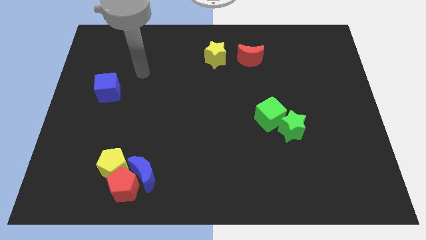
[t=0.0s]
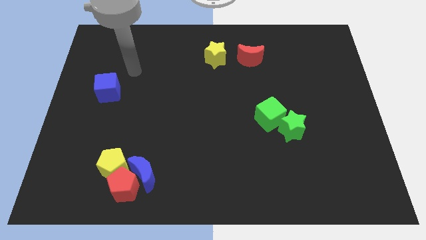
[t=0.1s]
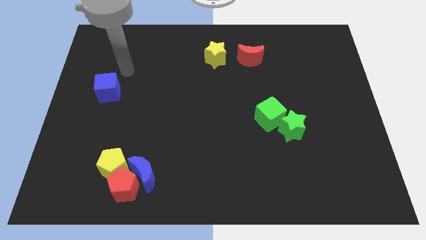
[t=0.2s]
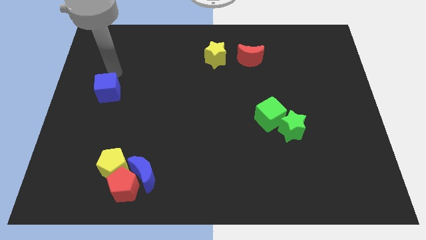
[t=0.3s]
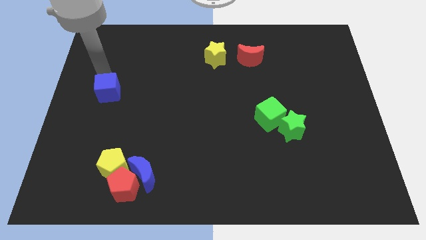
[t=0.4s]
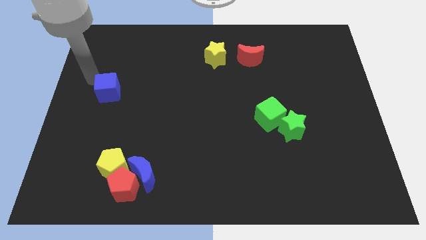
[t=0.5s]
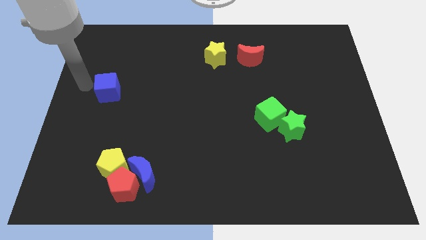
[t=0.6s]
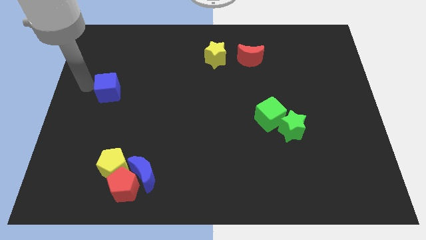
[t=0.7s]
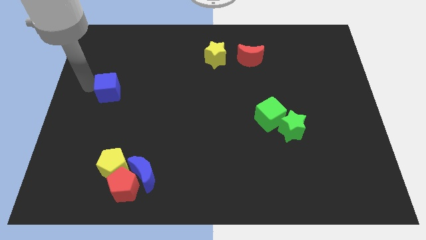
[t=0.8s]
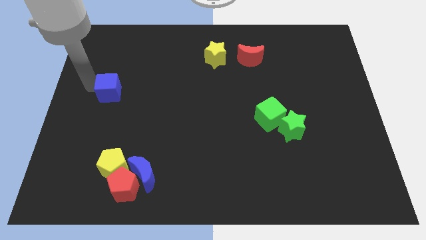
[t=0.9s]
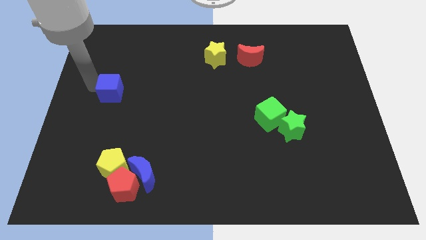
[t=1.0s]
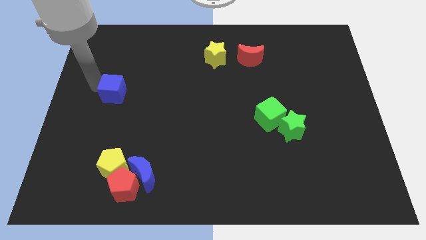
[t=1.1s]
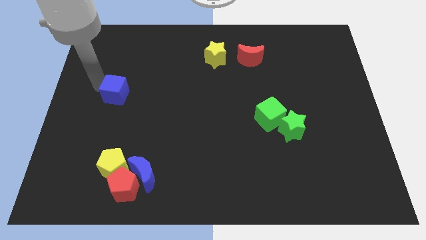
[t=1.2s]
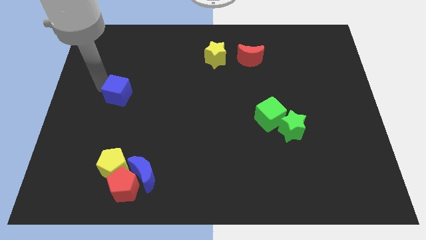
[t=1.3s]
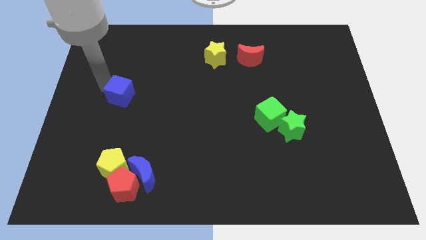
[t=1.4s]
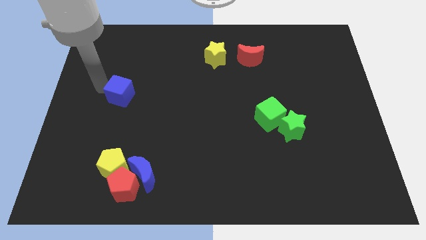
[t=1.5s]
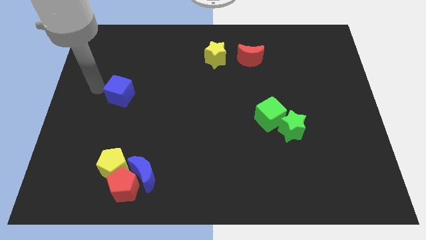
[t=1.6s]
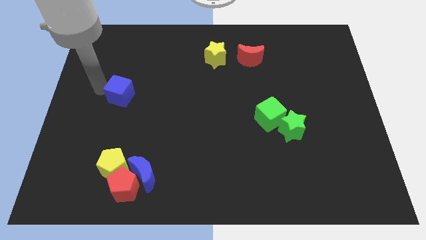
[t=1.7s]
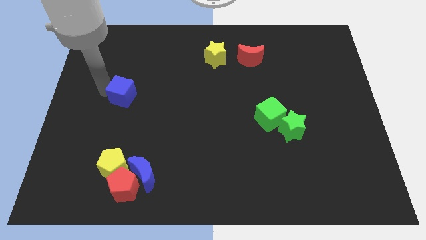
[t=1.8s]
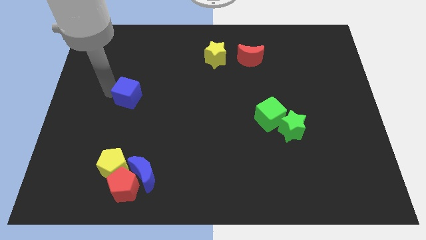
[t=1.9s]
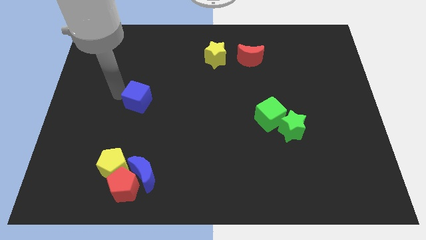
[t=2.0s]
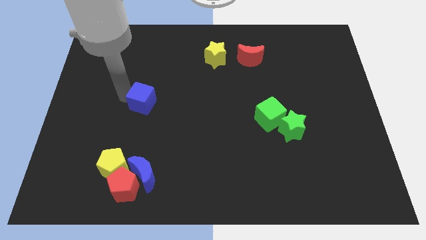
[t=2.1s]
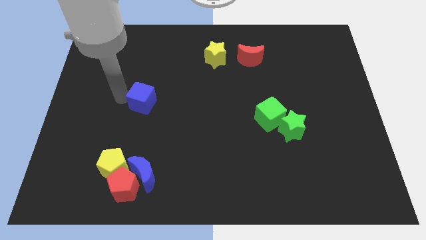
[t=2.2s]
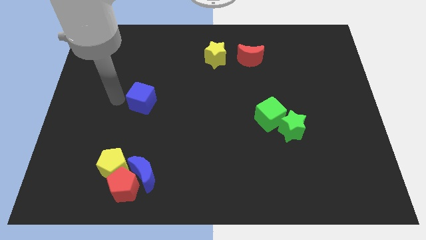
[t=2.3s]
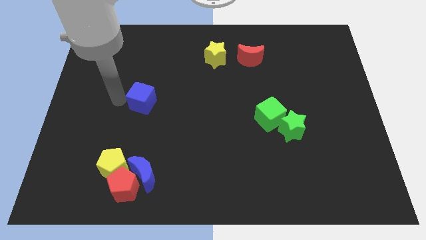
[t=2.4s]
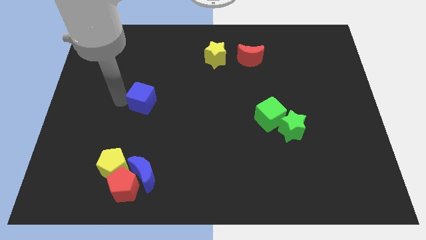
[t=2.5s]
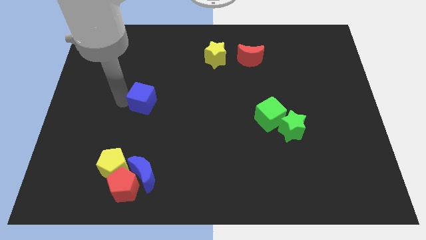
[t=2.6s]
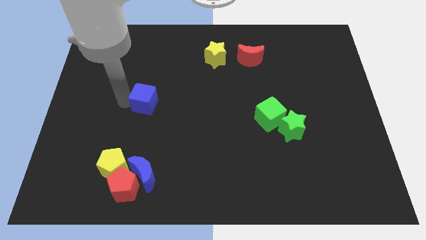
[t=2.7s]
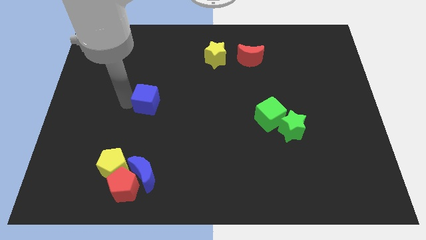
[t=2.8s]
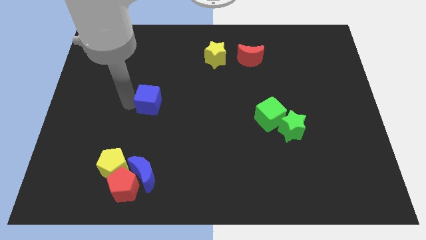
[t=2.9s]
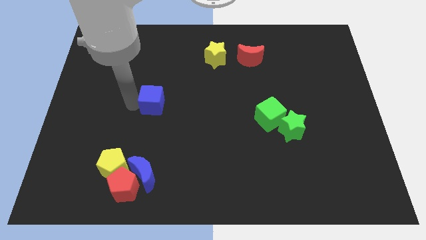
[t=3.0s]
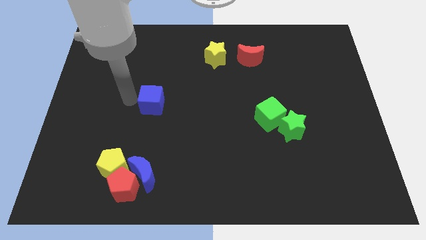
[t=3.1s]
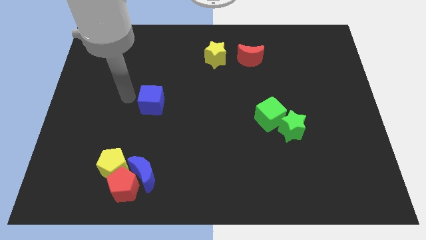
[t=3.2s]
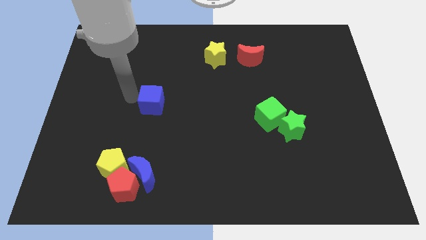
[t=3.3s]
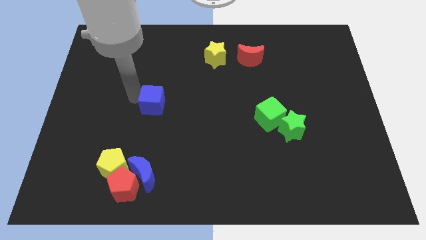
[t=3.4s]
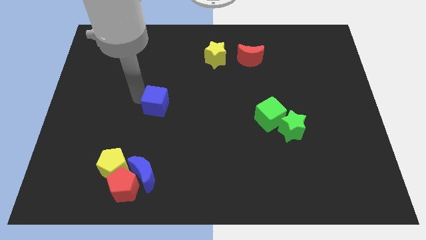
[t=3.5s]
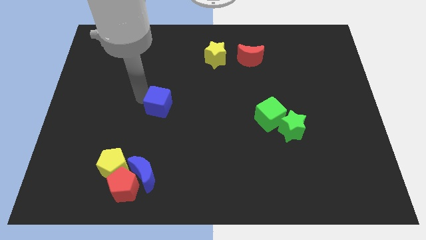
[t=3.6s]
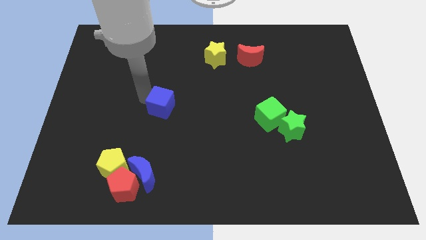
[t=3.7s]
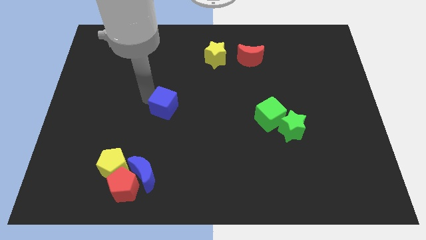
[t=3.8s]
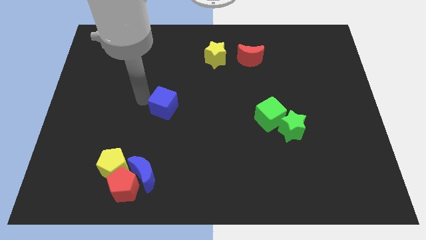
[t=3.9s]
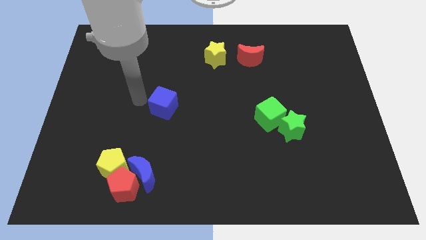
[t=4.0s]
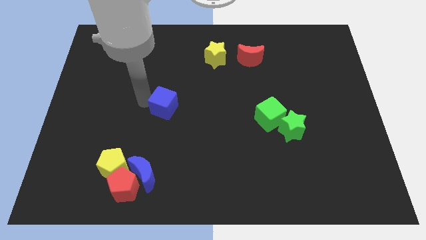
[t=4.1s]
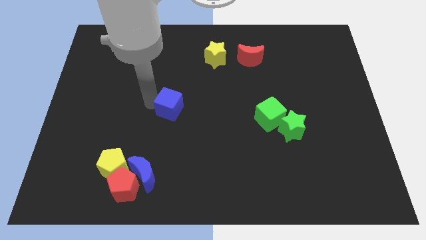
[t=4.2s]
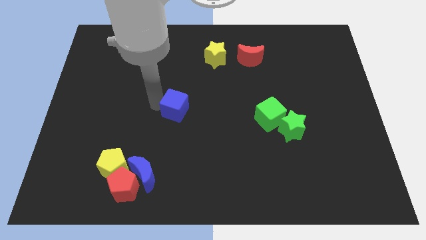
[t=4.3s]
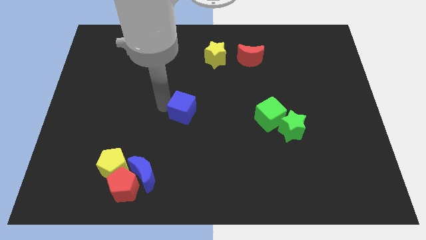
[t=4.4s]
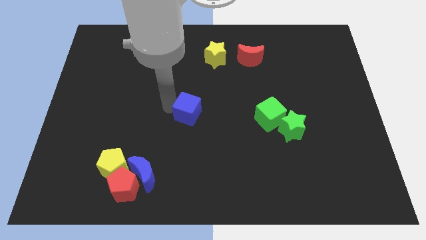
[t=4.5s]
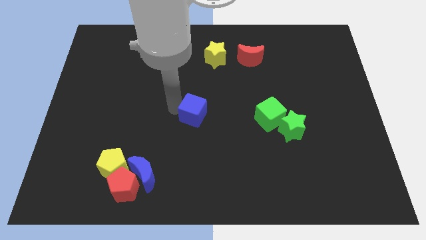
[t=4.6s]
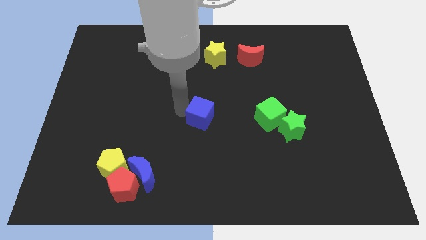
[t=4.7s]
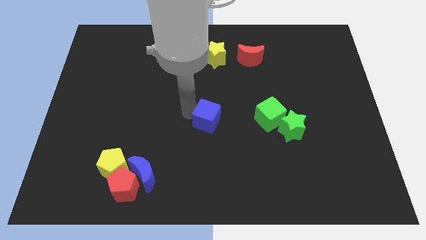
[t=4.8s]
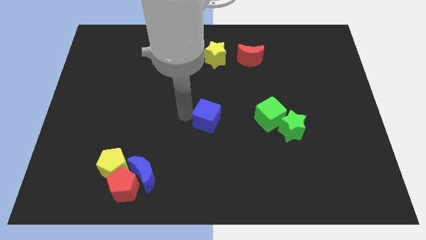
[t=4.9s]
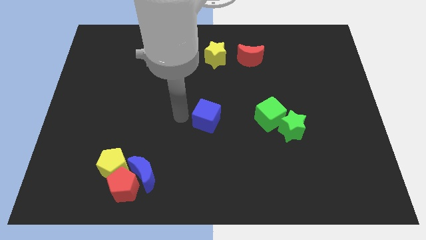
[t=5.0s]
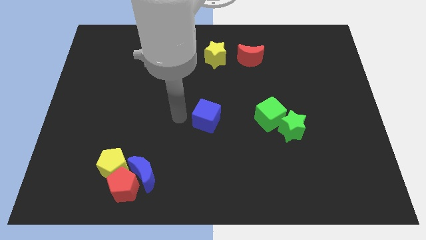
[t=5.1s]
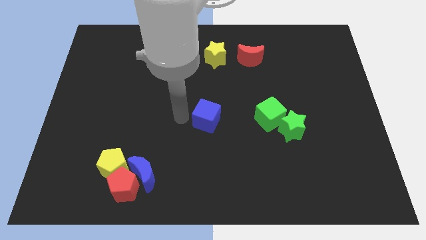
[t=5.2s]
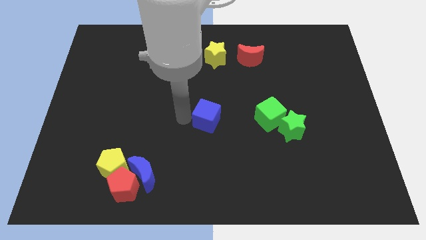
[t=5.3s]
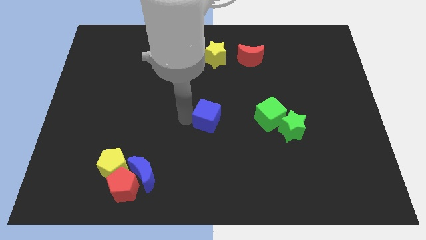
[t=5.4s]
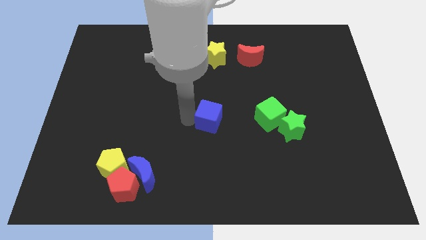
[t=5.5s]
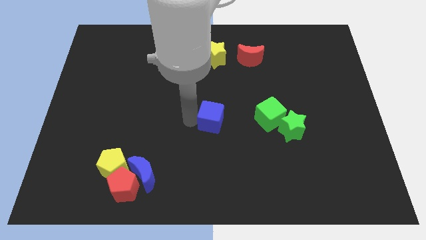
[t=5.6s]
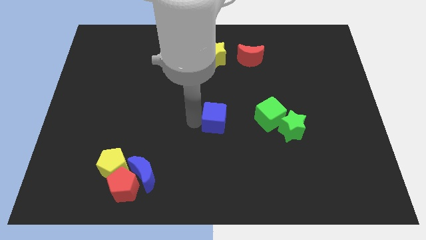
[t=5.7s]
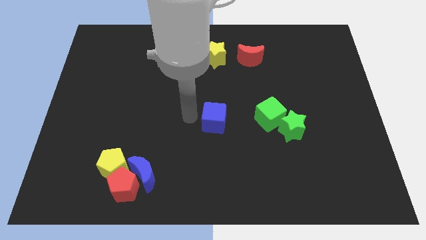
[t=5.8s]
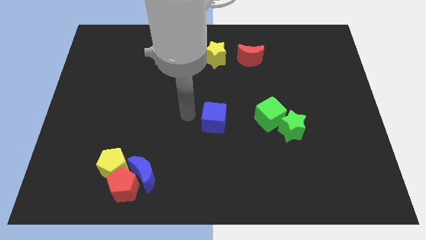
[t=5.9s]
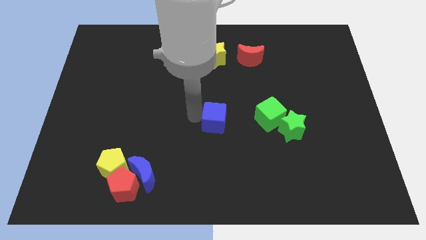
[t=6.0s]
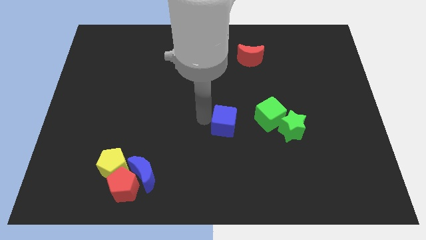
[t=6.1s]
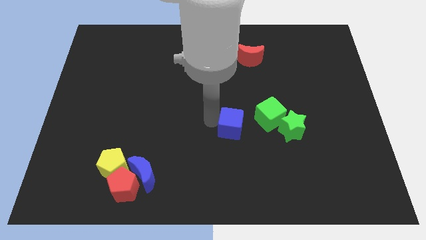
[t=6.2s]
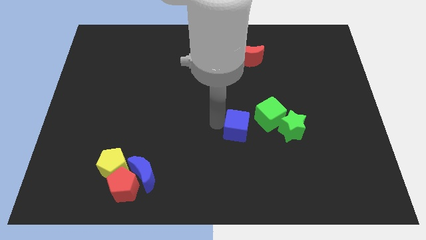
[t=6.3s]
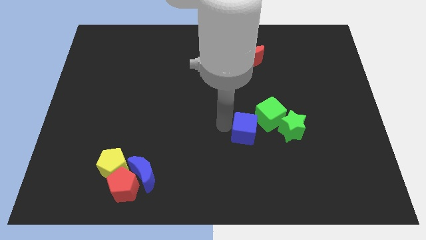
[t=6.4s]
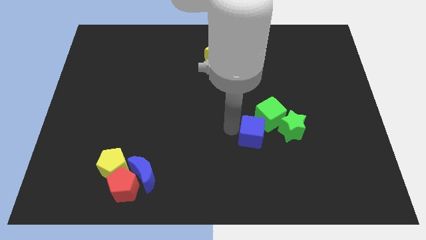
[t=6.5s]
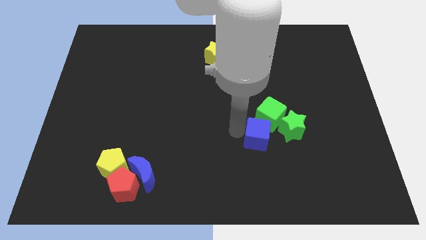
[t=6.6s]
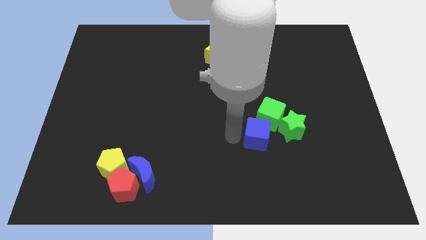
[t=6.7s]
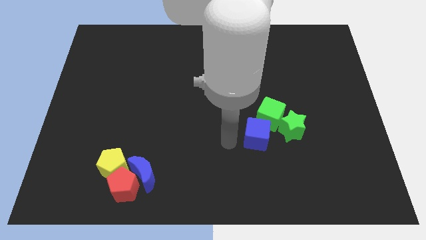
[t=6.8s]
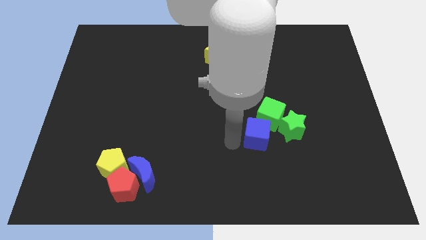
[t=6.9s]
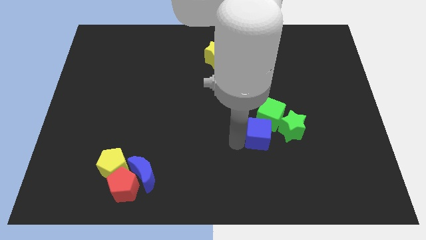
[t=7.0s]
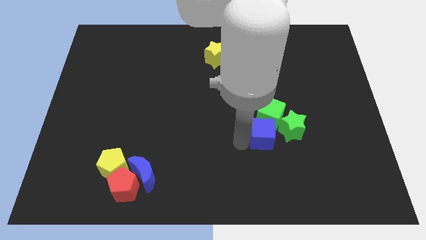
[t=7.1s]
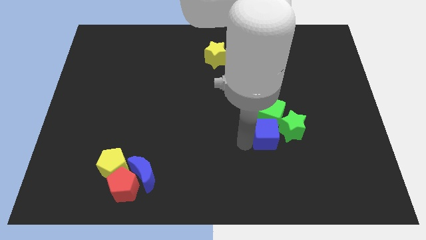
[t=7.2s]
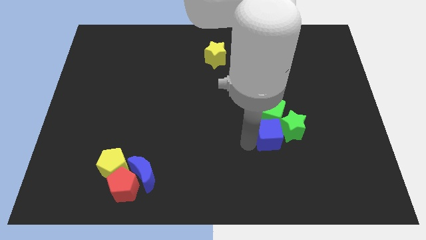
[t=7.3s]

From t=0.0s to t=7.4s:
move the blue cube towards the green star

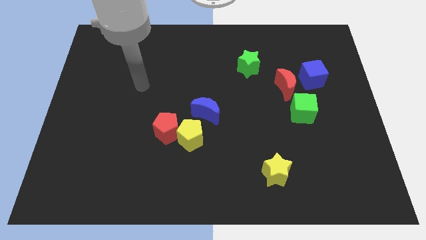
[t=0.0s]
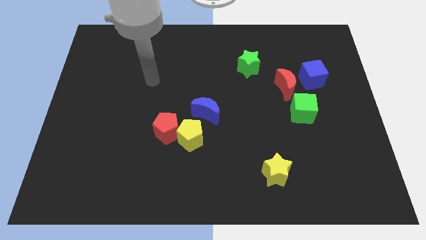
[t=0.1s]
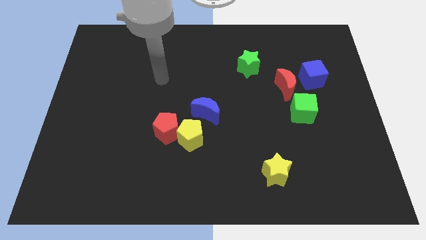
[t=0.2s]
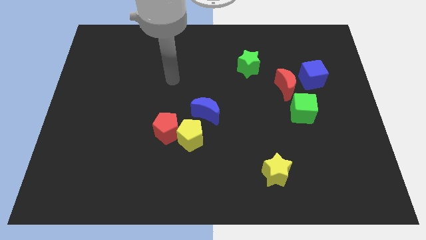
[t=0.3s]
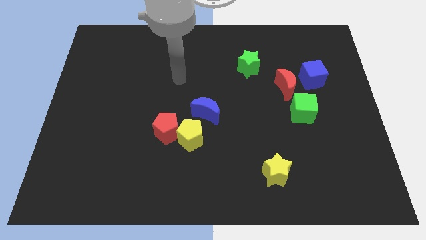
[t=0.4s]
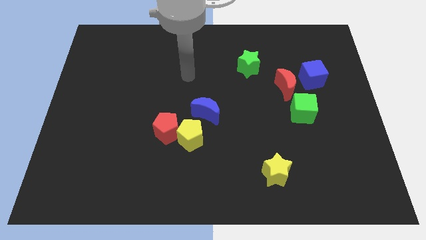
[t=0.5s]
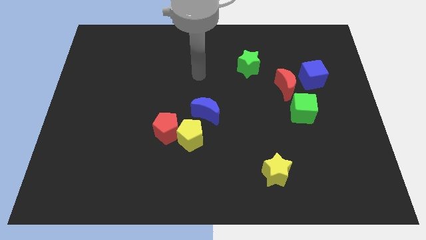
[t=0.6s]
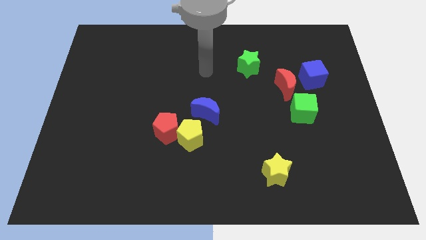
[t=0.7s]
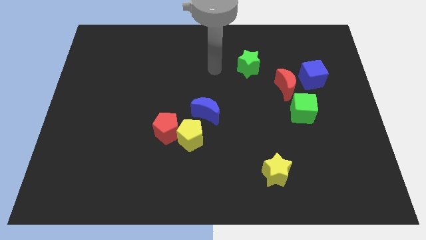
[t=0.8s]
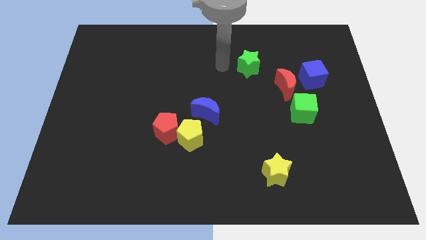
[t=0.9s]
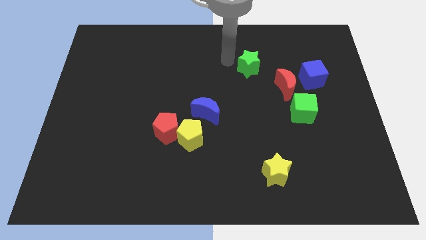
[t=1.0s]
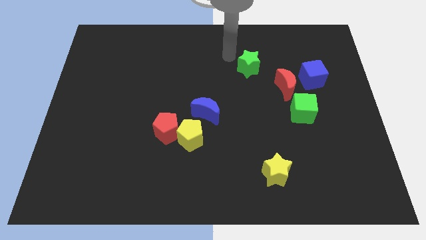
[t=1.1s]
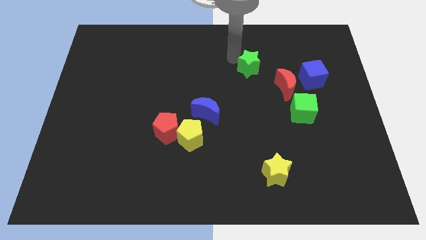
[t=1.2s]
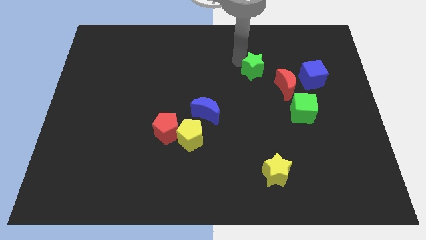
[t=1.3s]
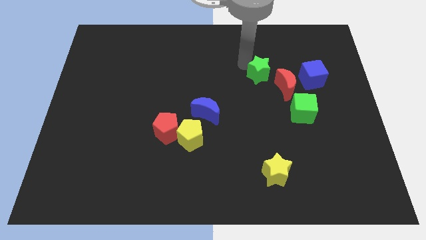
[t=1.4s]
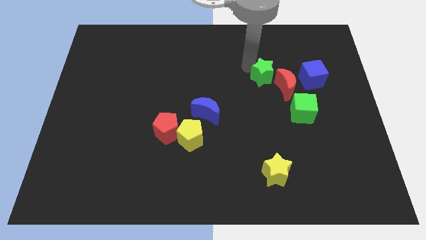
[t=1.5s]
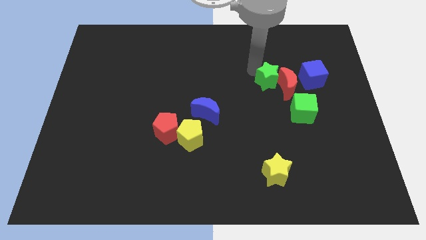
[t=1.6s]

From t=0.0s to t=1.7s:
move the green star towards the red moon
